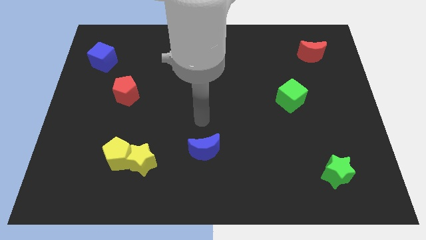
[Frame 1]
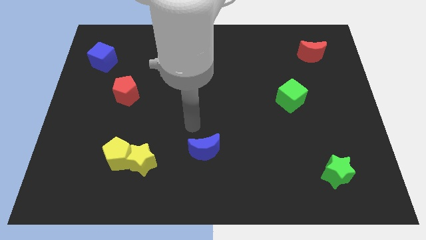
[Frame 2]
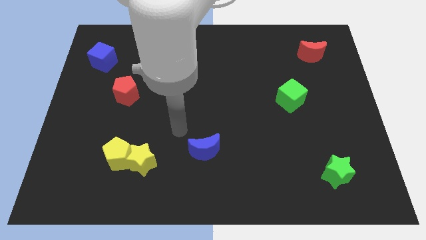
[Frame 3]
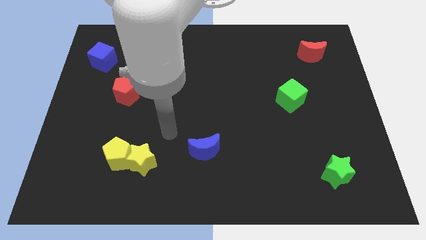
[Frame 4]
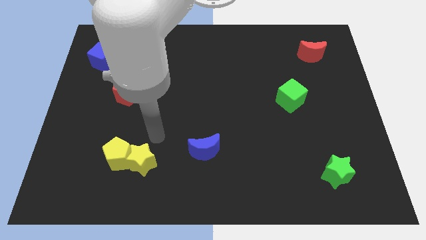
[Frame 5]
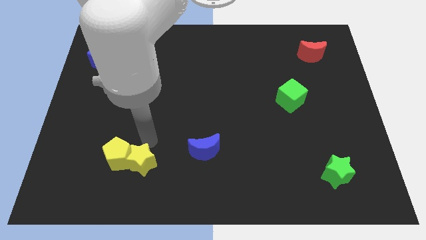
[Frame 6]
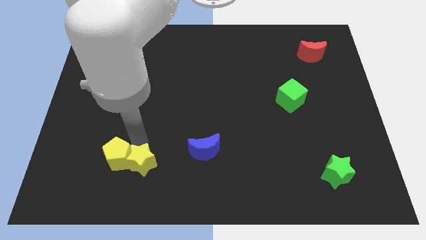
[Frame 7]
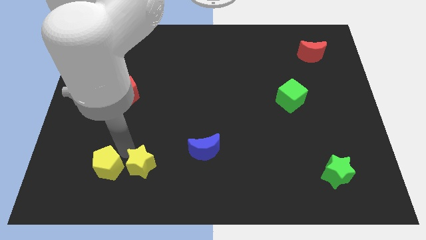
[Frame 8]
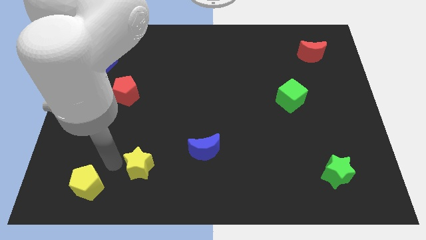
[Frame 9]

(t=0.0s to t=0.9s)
pull the yellow star apart from the yellow pentagon

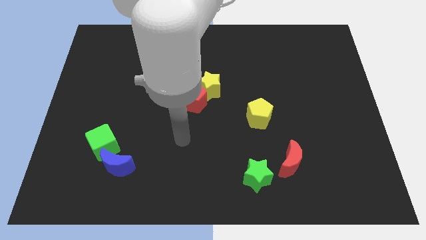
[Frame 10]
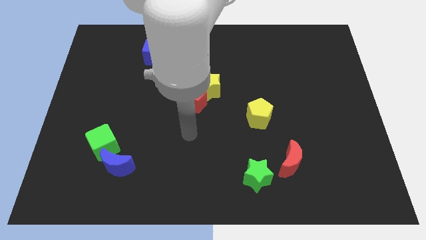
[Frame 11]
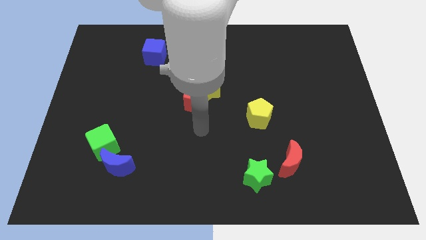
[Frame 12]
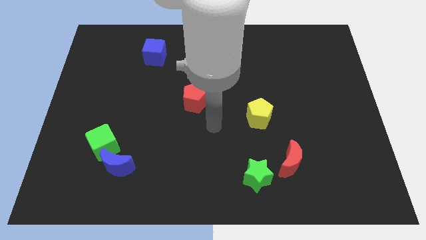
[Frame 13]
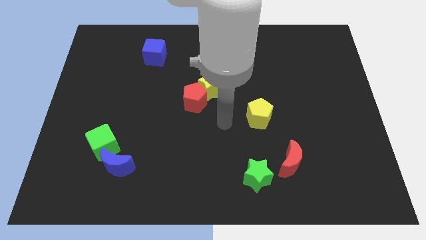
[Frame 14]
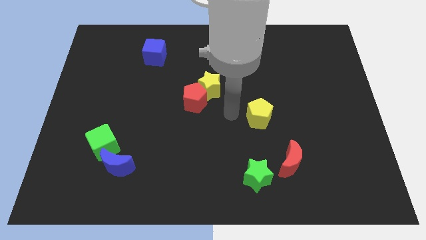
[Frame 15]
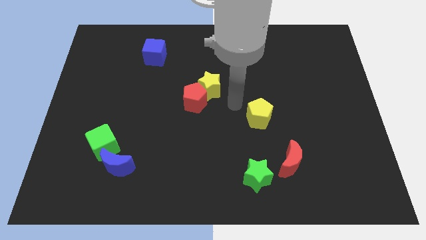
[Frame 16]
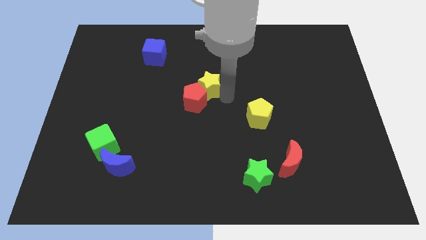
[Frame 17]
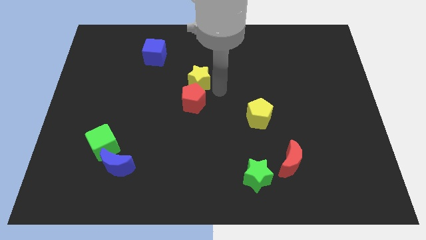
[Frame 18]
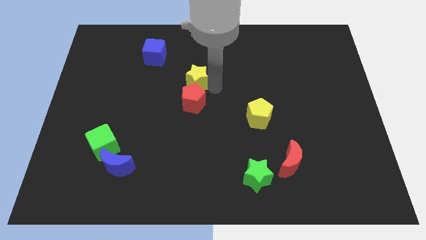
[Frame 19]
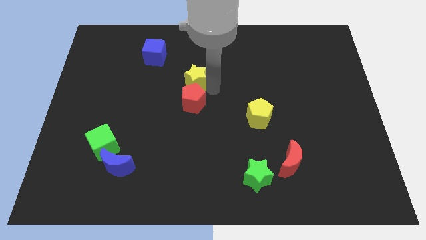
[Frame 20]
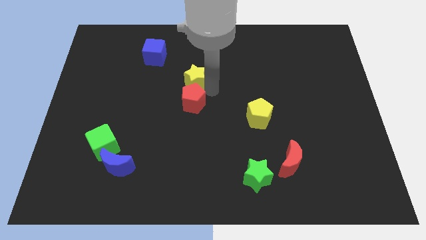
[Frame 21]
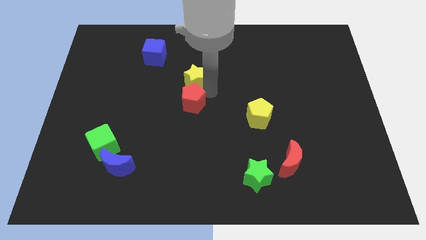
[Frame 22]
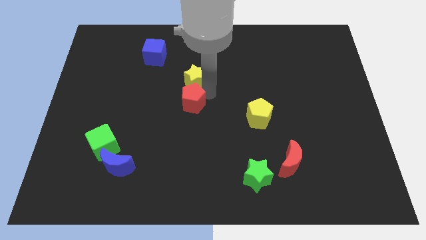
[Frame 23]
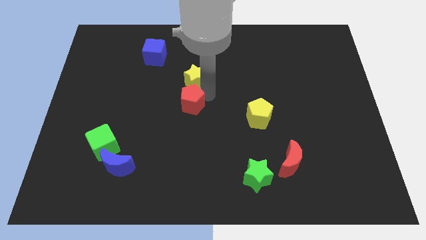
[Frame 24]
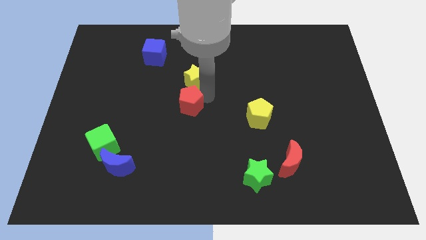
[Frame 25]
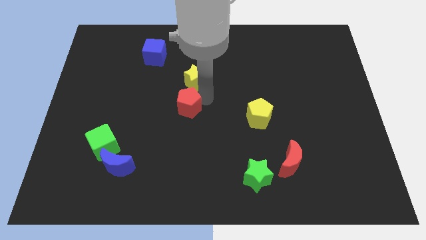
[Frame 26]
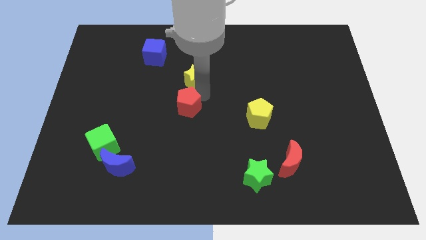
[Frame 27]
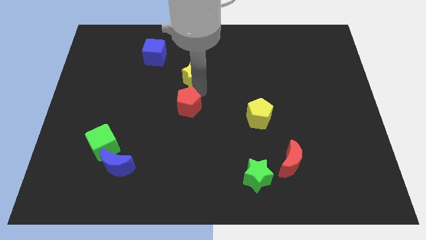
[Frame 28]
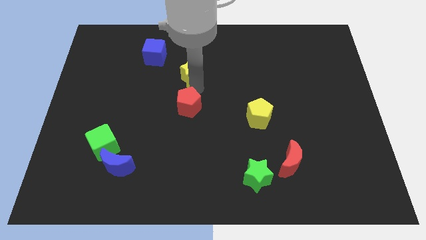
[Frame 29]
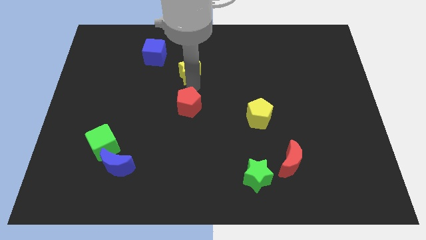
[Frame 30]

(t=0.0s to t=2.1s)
separate the red pentagon from the yellow star

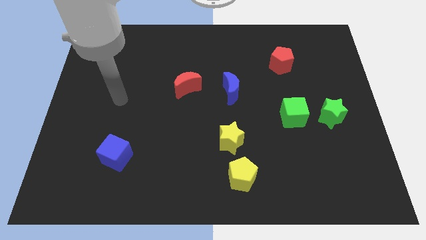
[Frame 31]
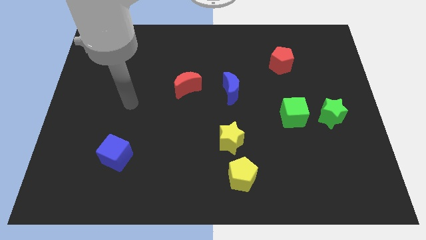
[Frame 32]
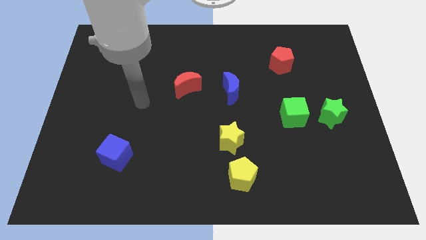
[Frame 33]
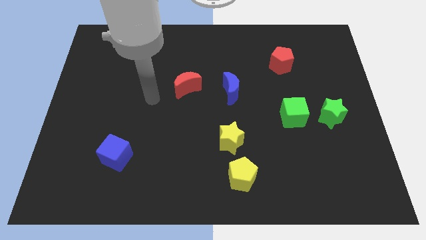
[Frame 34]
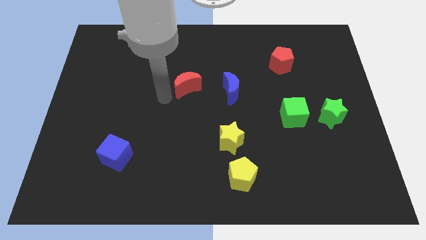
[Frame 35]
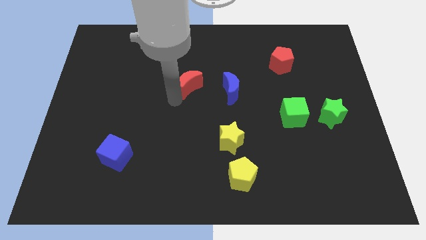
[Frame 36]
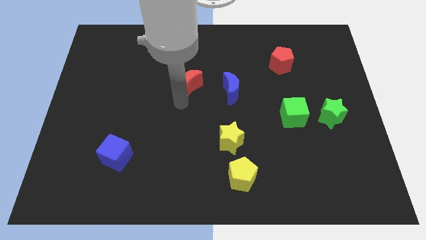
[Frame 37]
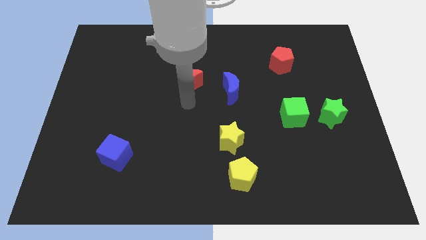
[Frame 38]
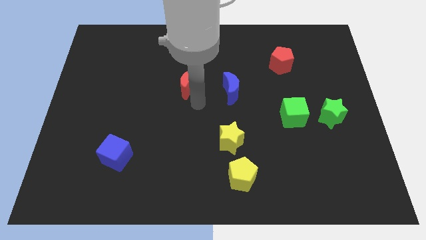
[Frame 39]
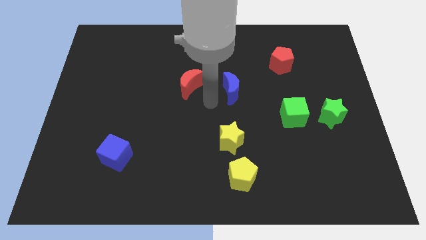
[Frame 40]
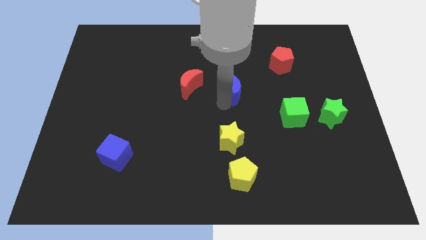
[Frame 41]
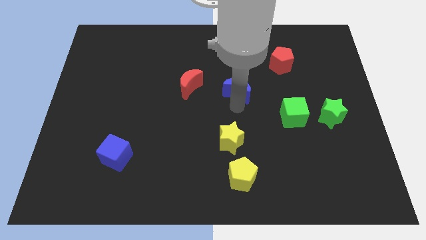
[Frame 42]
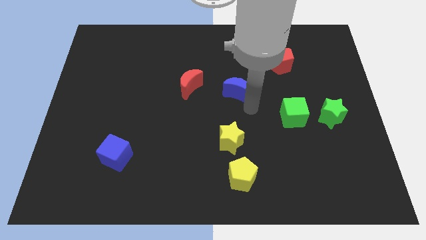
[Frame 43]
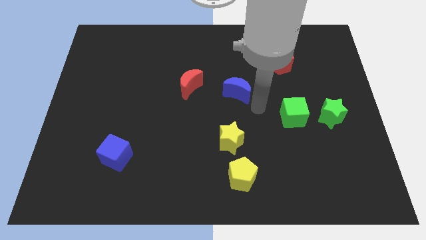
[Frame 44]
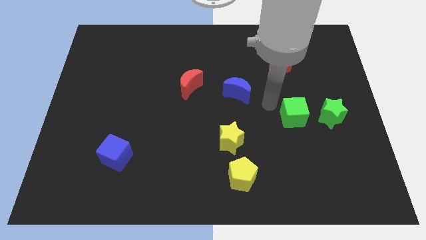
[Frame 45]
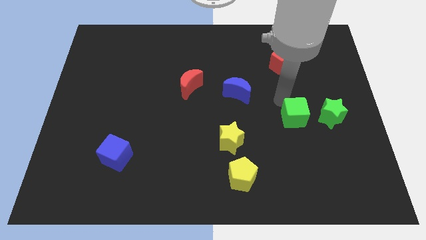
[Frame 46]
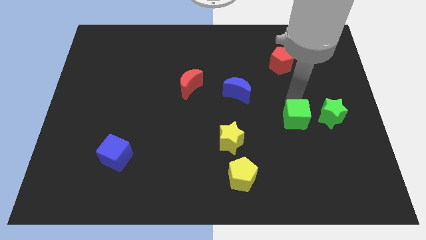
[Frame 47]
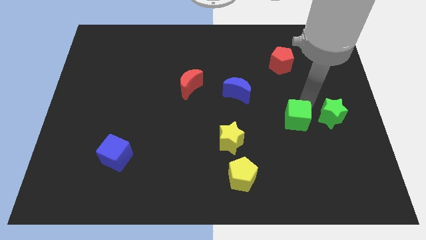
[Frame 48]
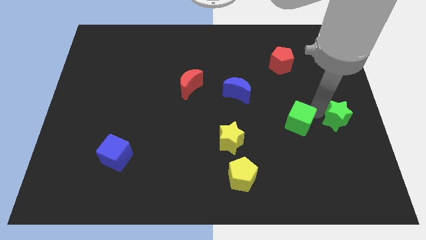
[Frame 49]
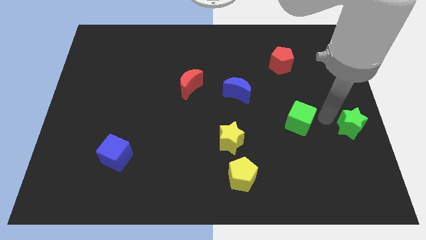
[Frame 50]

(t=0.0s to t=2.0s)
pull the green cube apart from the green star

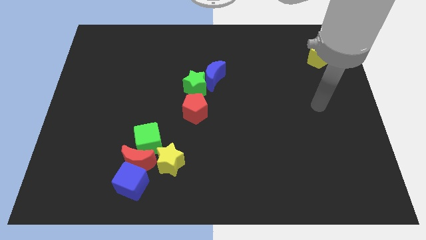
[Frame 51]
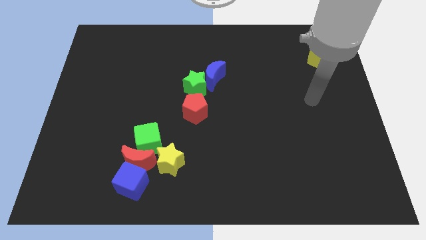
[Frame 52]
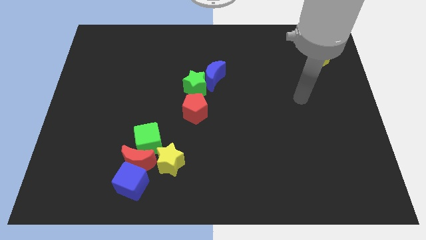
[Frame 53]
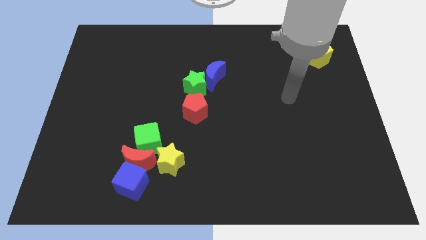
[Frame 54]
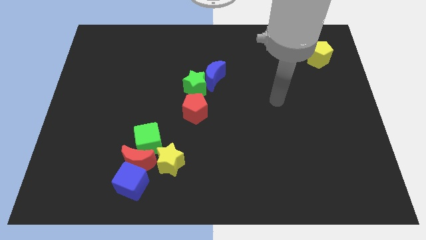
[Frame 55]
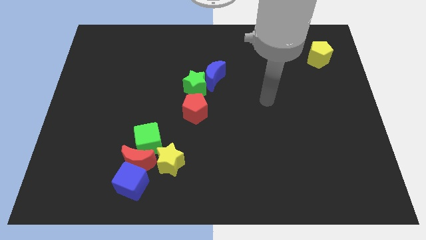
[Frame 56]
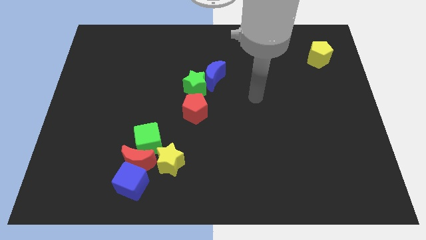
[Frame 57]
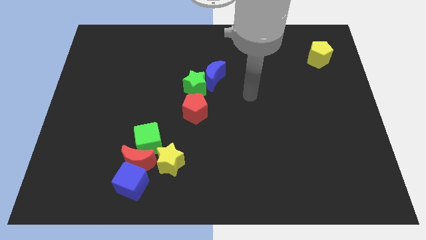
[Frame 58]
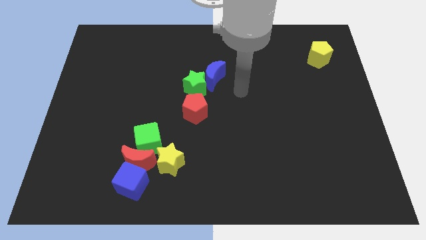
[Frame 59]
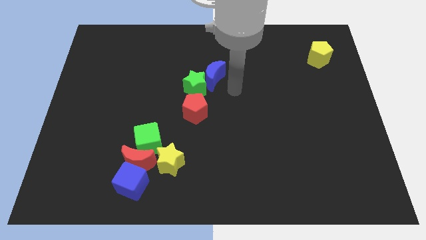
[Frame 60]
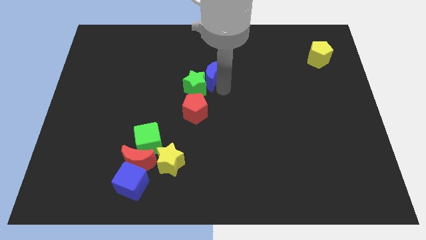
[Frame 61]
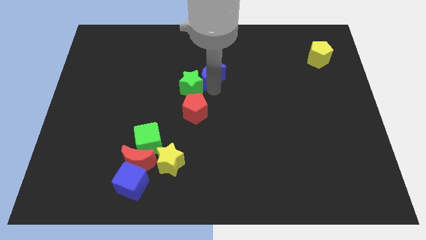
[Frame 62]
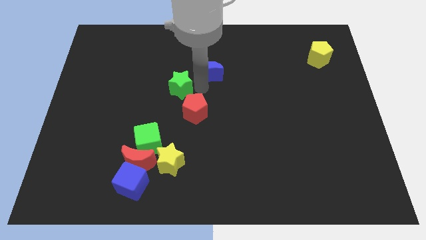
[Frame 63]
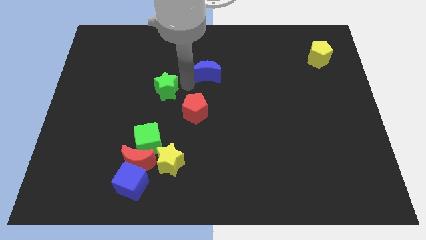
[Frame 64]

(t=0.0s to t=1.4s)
pull the blue moon apart from the green star

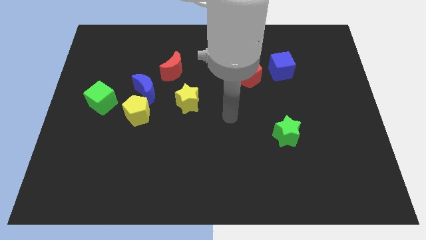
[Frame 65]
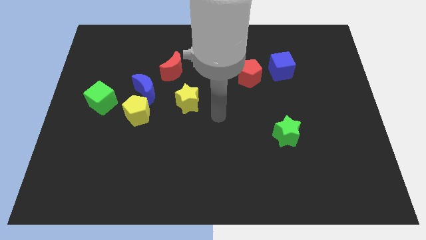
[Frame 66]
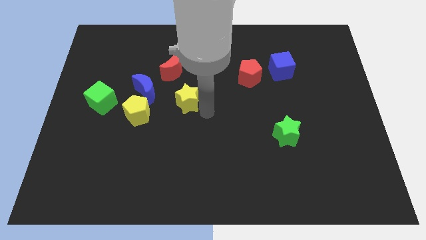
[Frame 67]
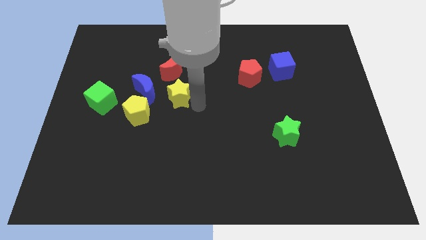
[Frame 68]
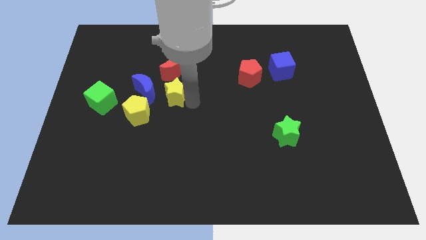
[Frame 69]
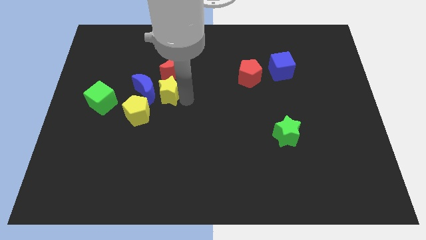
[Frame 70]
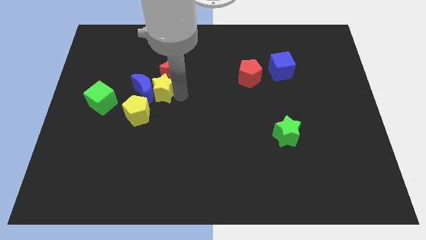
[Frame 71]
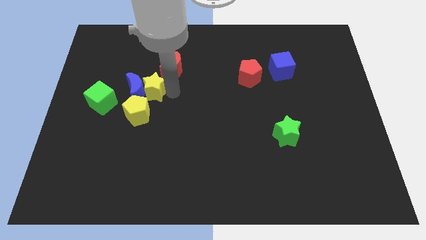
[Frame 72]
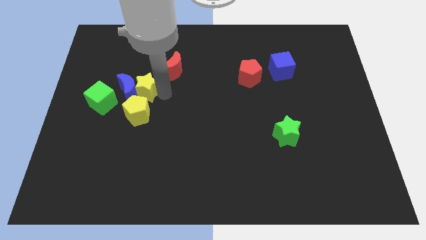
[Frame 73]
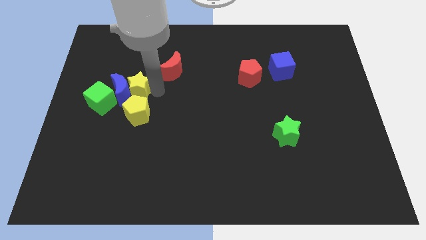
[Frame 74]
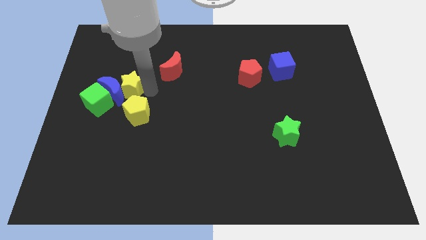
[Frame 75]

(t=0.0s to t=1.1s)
pull the blue moon apart from the yellow pentagon and red moon

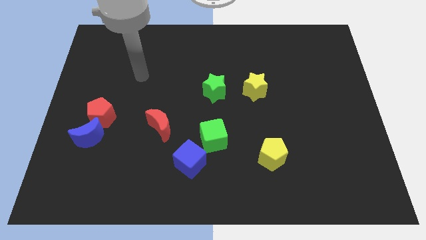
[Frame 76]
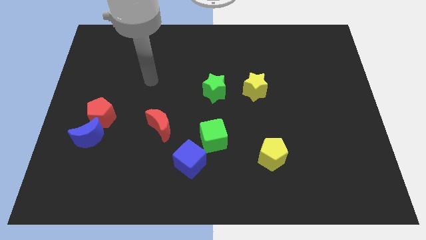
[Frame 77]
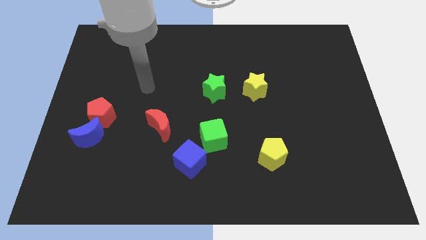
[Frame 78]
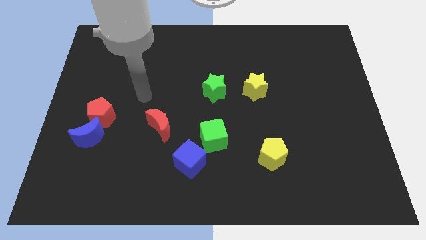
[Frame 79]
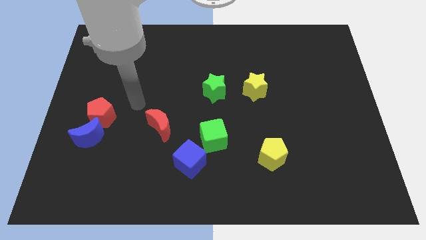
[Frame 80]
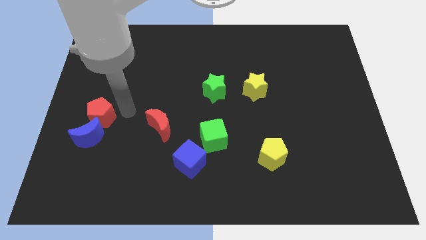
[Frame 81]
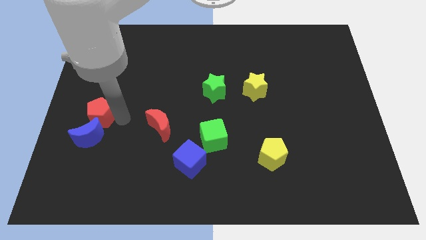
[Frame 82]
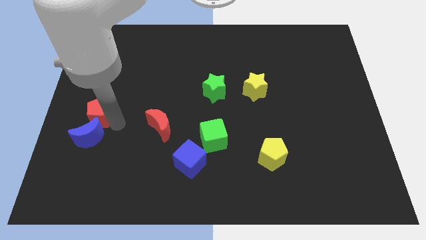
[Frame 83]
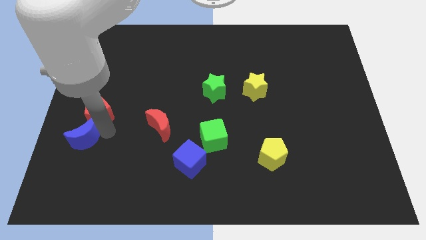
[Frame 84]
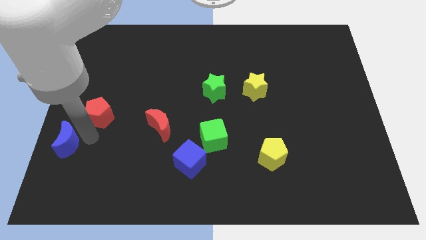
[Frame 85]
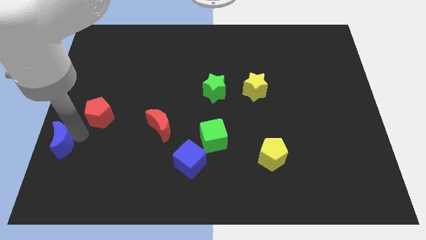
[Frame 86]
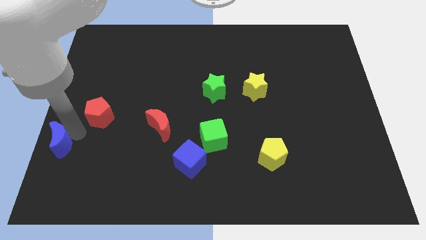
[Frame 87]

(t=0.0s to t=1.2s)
pull the red pentagon apart from the blue moon

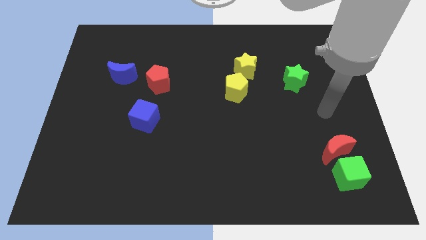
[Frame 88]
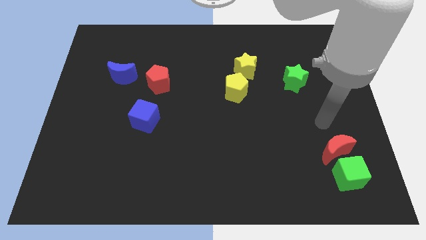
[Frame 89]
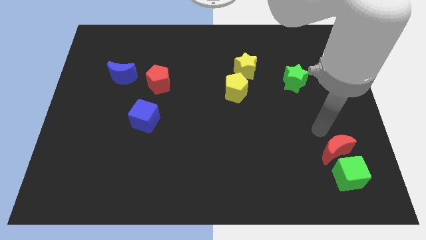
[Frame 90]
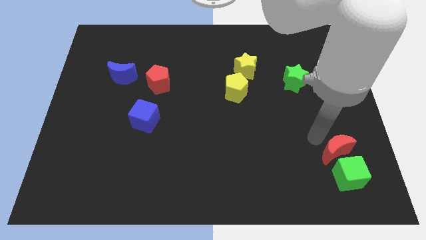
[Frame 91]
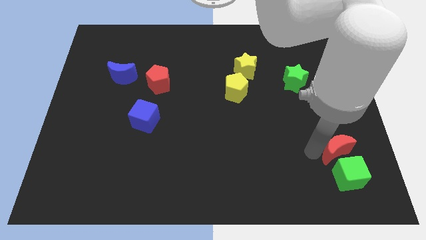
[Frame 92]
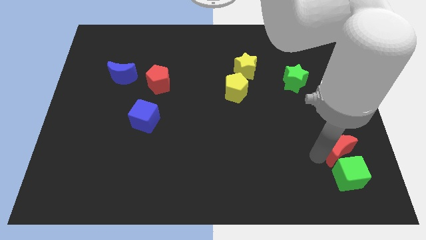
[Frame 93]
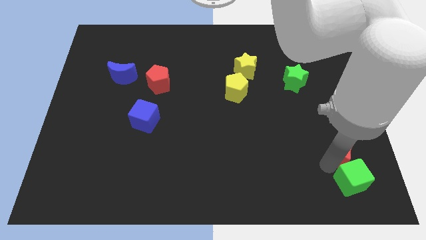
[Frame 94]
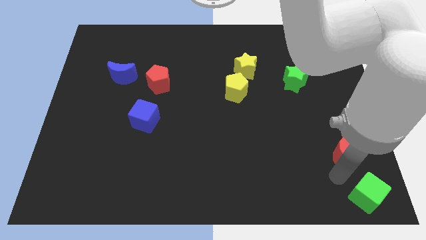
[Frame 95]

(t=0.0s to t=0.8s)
separate the red moon from the green cube
